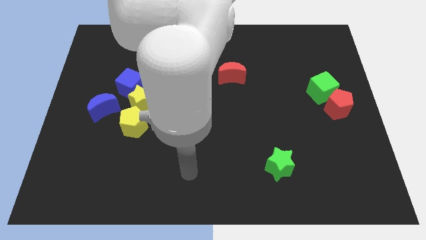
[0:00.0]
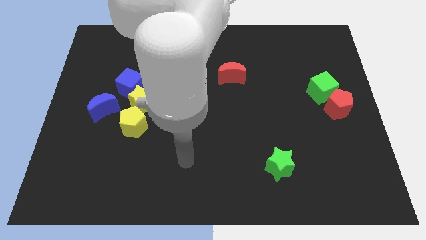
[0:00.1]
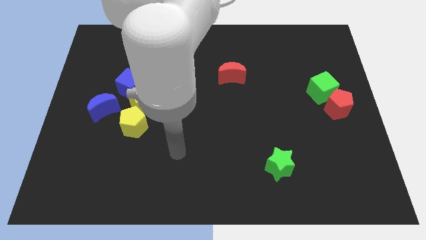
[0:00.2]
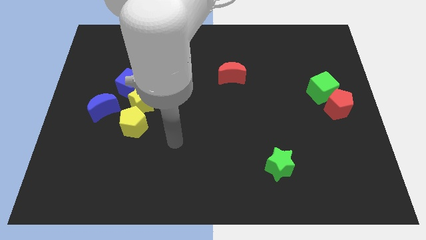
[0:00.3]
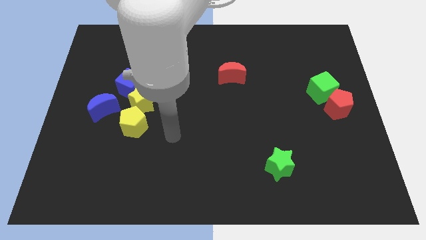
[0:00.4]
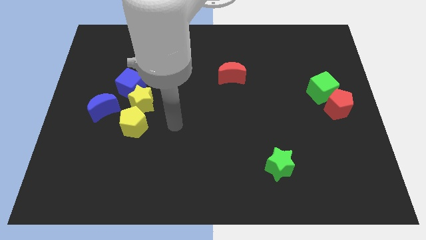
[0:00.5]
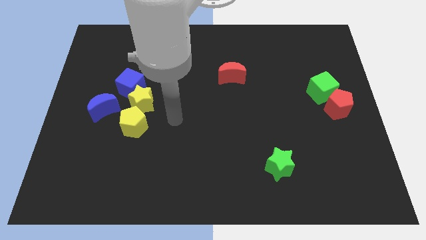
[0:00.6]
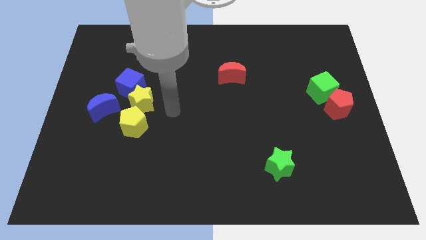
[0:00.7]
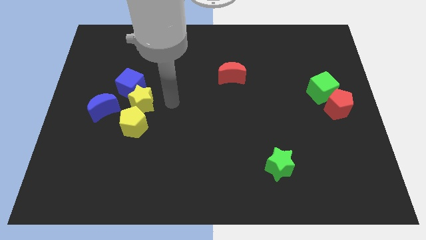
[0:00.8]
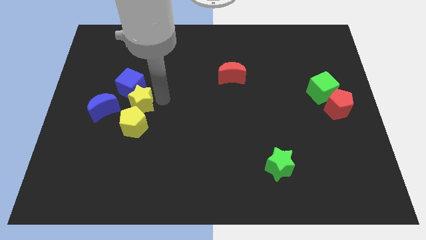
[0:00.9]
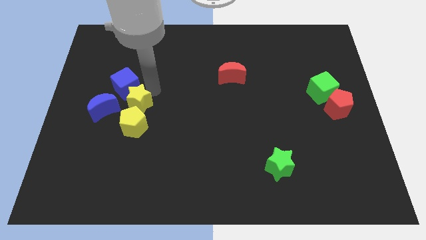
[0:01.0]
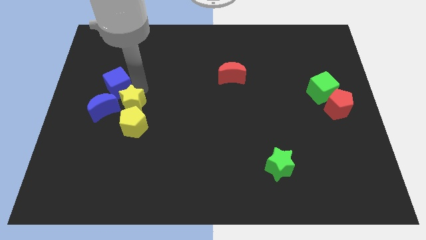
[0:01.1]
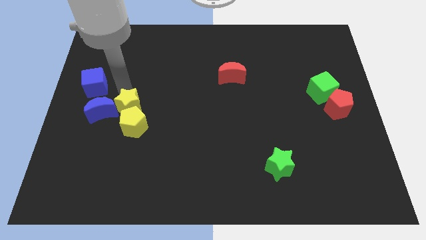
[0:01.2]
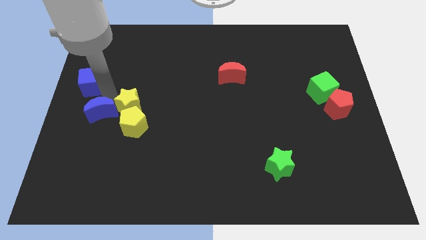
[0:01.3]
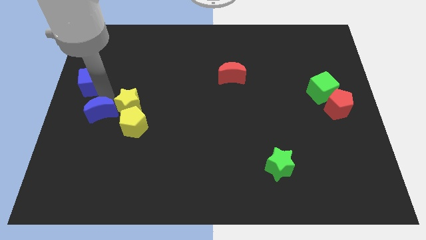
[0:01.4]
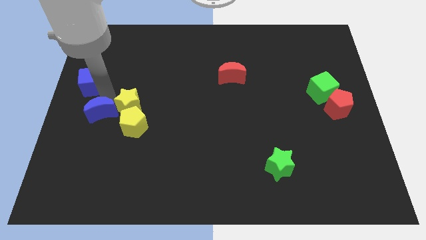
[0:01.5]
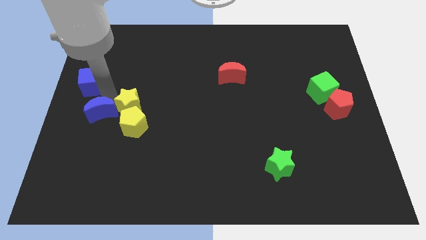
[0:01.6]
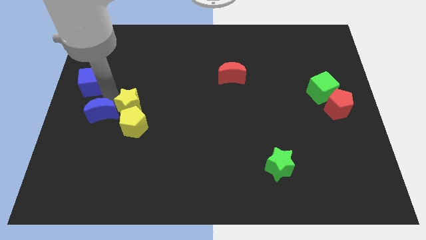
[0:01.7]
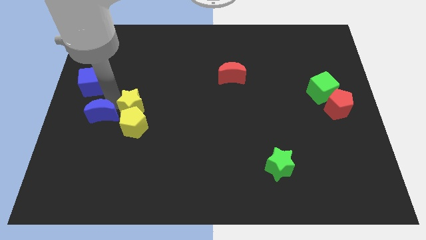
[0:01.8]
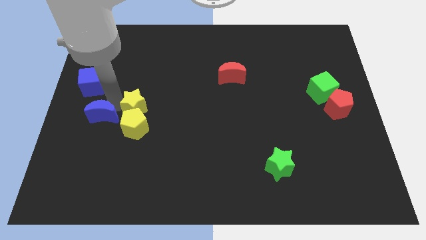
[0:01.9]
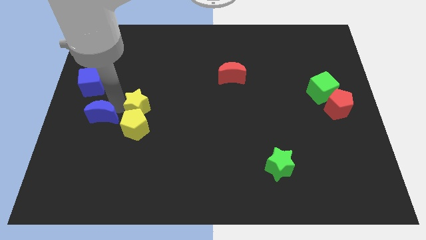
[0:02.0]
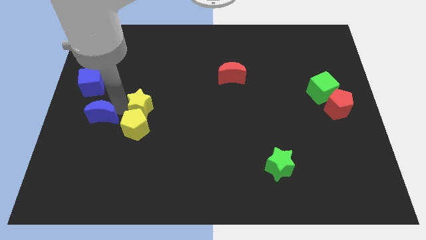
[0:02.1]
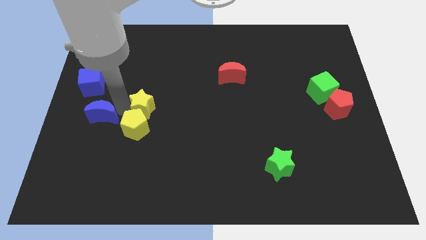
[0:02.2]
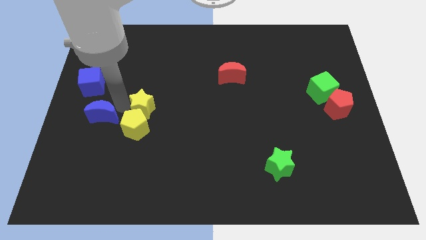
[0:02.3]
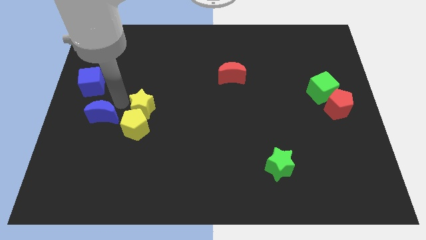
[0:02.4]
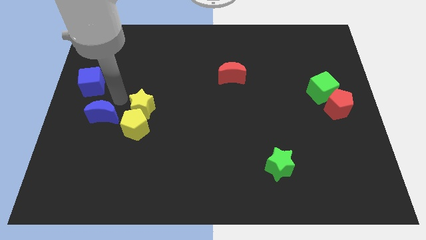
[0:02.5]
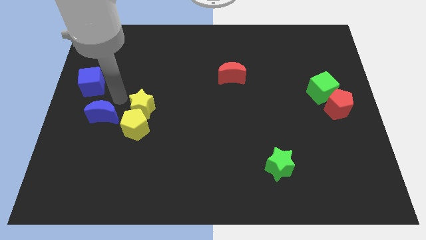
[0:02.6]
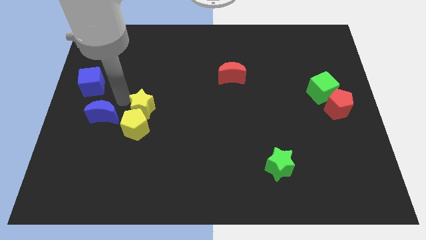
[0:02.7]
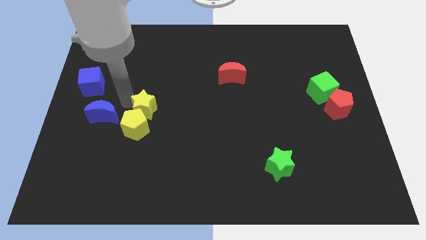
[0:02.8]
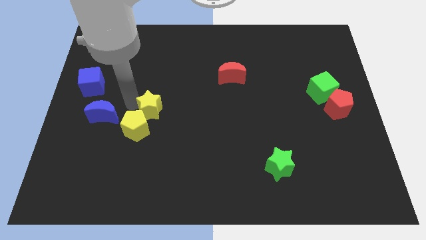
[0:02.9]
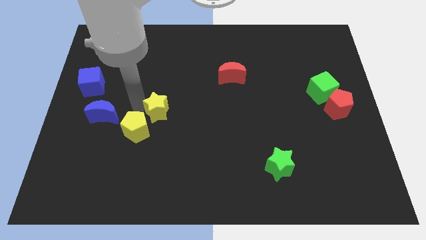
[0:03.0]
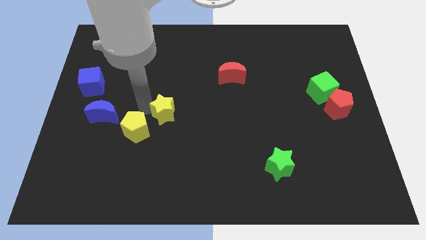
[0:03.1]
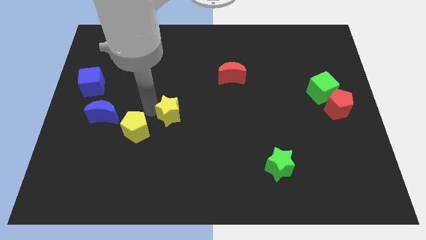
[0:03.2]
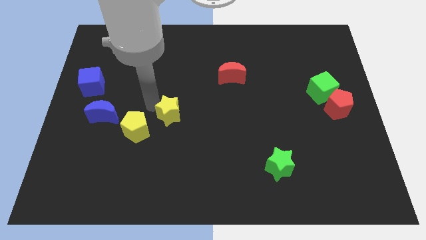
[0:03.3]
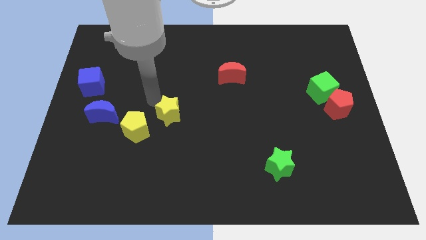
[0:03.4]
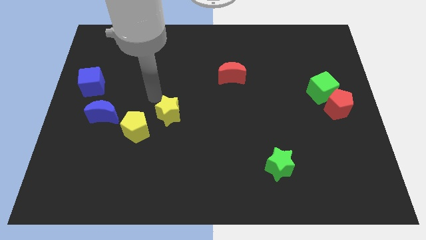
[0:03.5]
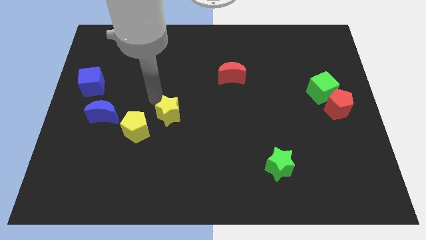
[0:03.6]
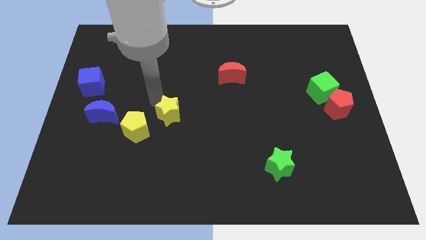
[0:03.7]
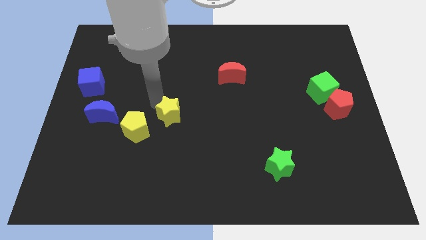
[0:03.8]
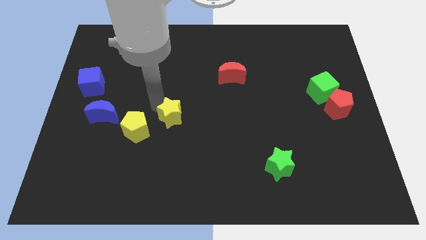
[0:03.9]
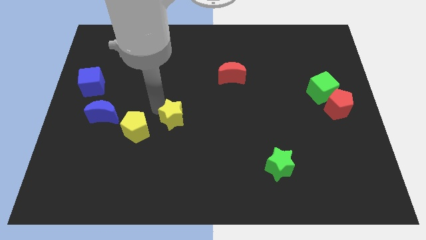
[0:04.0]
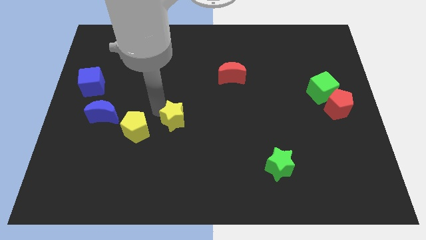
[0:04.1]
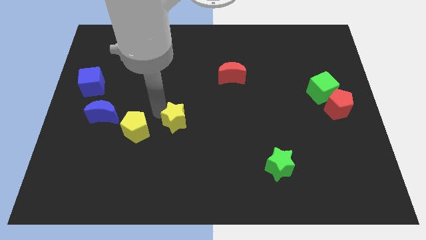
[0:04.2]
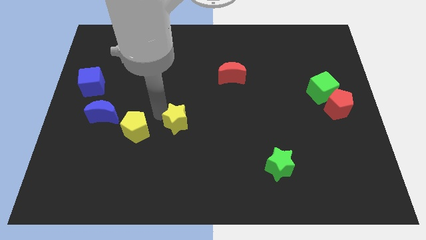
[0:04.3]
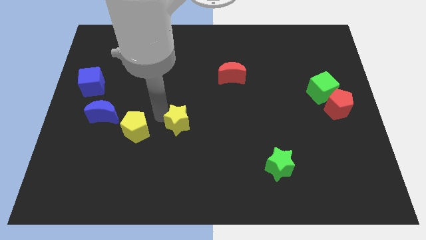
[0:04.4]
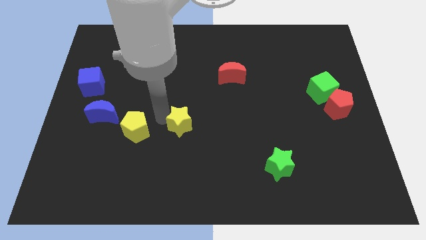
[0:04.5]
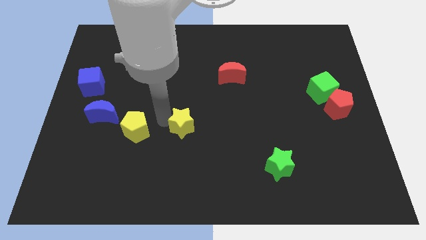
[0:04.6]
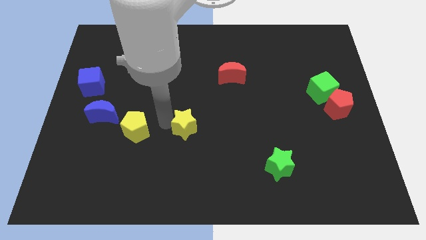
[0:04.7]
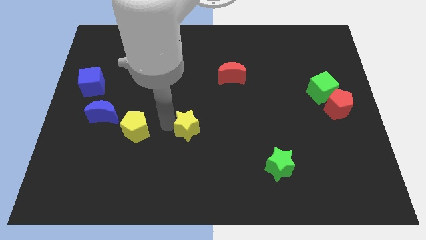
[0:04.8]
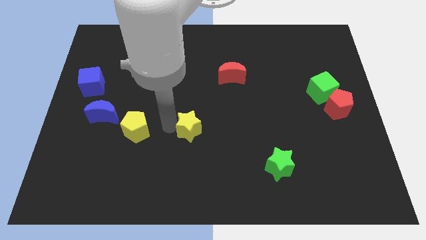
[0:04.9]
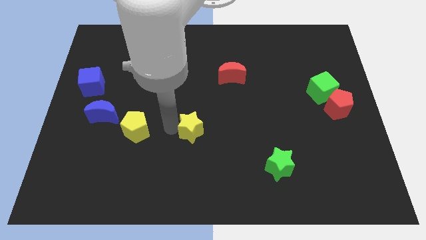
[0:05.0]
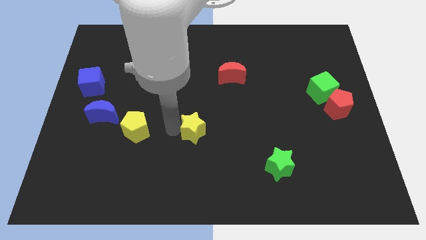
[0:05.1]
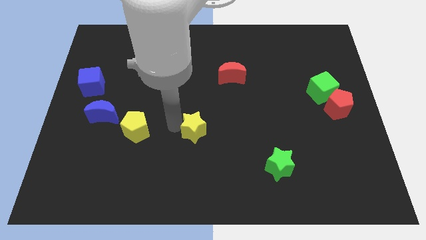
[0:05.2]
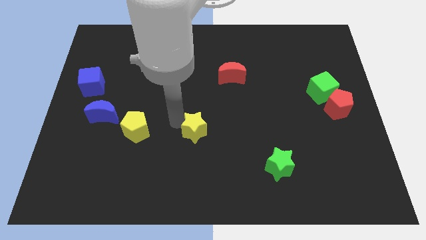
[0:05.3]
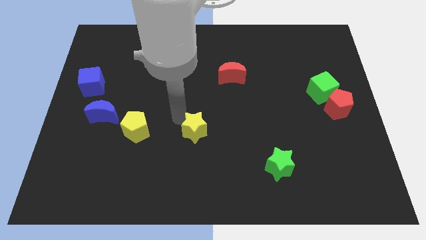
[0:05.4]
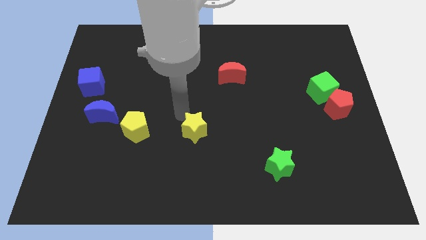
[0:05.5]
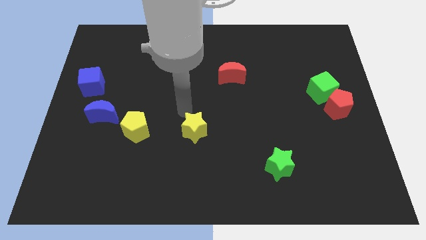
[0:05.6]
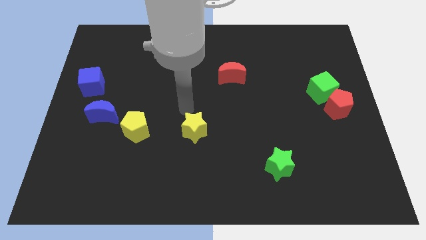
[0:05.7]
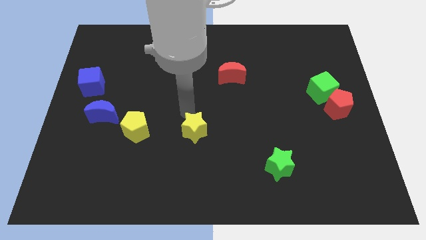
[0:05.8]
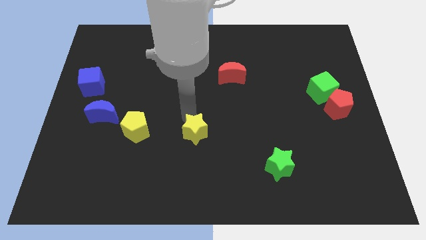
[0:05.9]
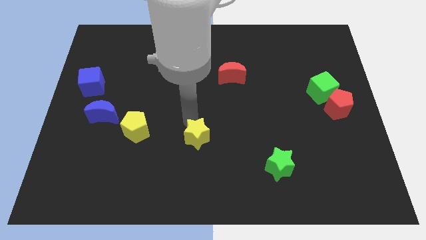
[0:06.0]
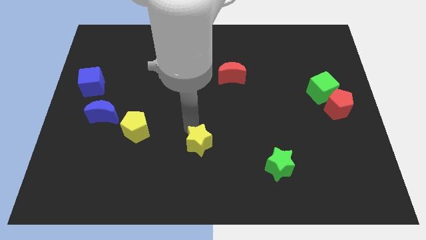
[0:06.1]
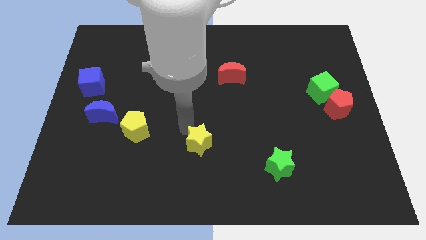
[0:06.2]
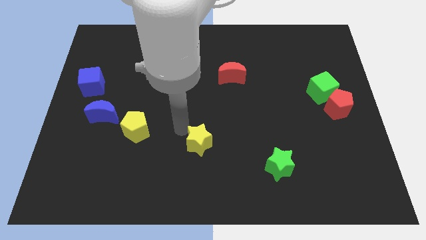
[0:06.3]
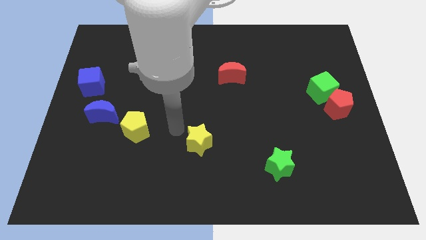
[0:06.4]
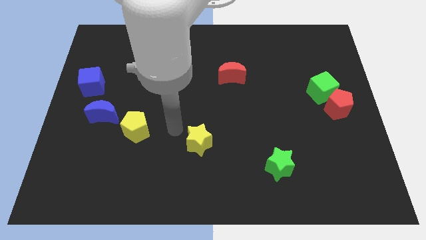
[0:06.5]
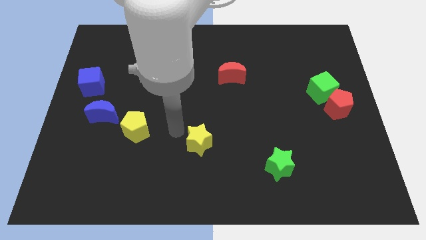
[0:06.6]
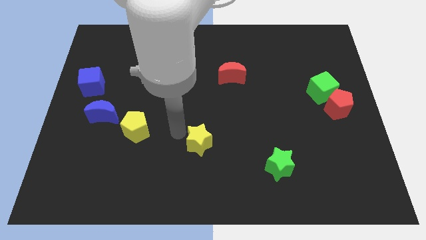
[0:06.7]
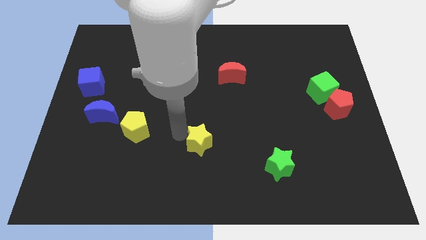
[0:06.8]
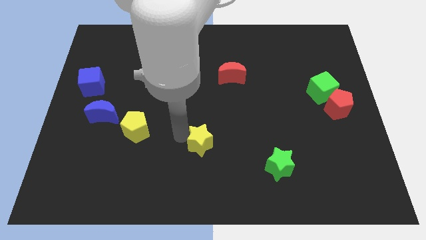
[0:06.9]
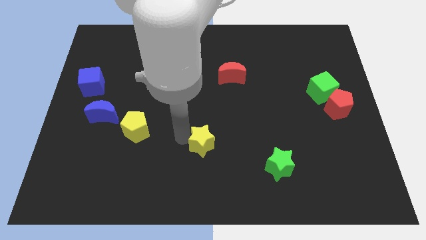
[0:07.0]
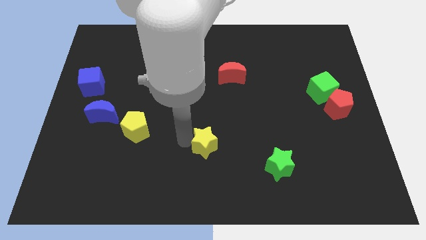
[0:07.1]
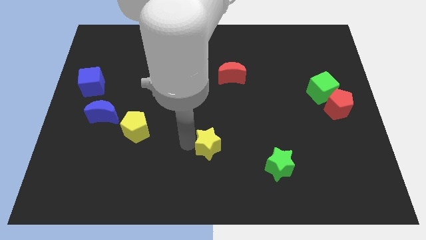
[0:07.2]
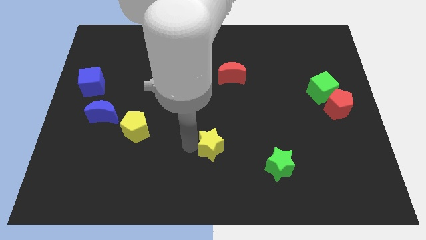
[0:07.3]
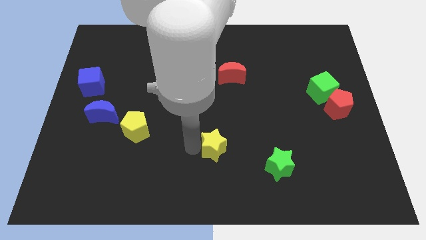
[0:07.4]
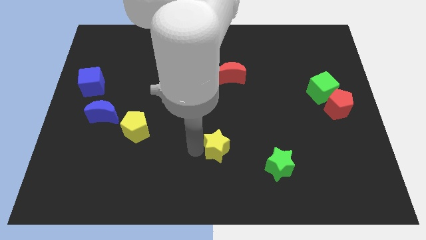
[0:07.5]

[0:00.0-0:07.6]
put the yellow star left of the green star
